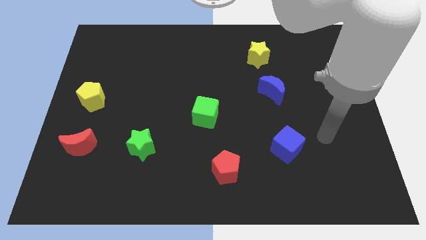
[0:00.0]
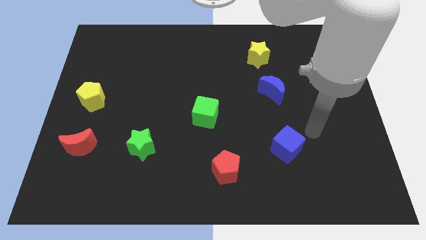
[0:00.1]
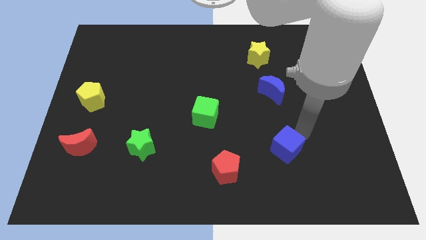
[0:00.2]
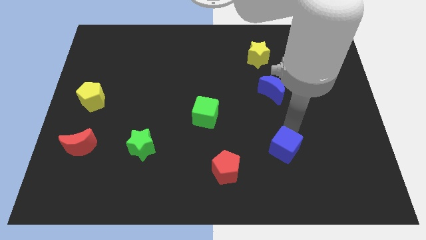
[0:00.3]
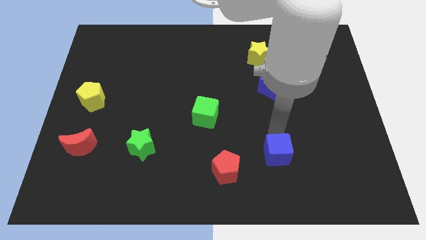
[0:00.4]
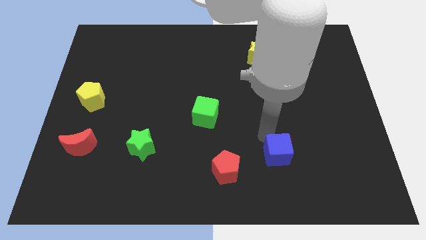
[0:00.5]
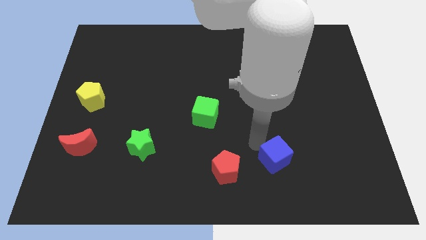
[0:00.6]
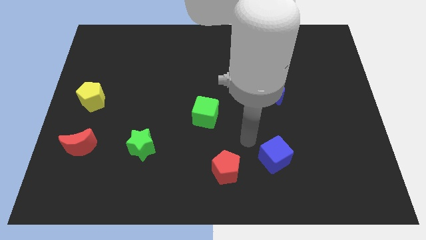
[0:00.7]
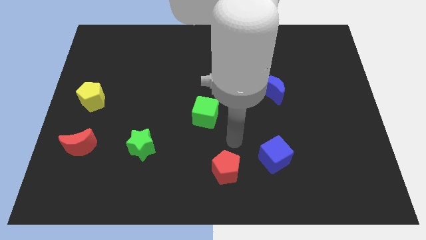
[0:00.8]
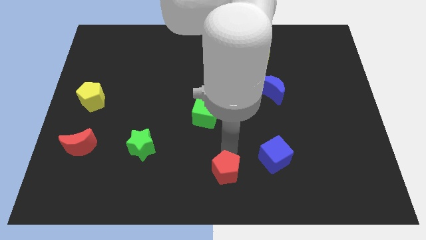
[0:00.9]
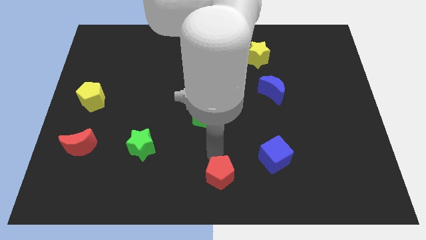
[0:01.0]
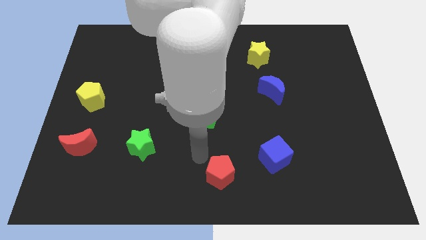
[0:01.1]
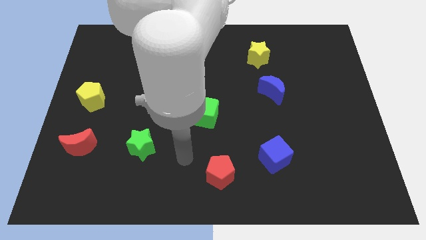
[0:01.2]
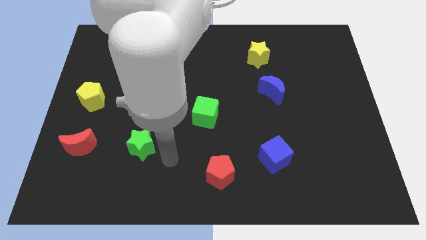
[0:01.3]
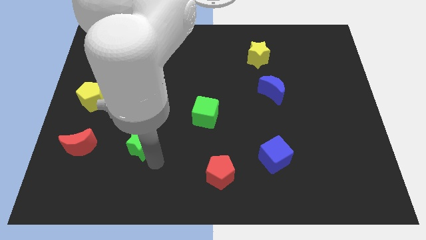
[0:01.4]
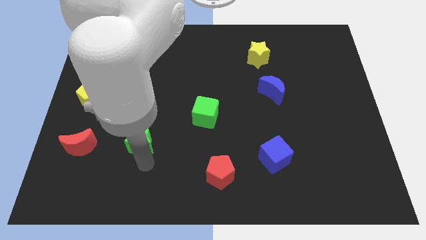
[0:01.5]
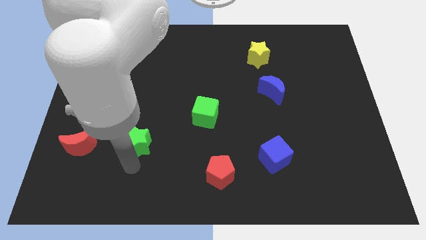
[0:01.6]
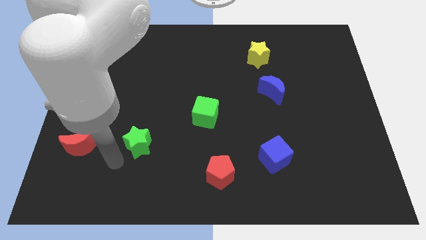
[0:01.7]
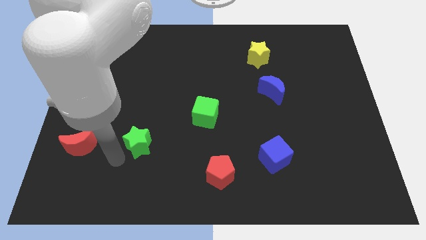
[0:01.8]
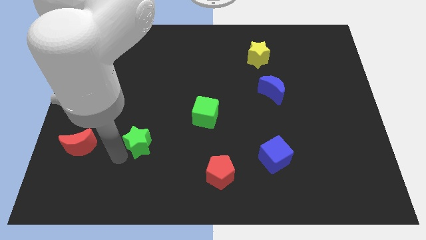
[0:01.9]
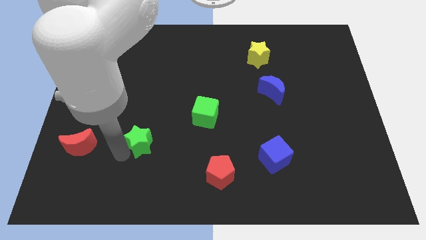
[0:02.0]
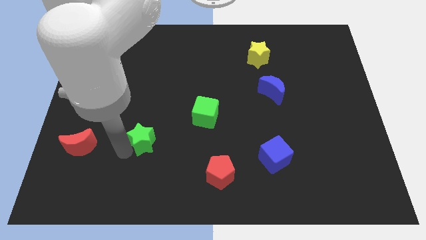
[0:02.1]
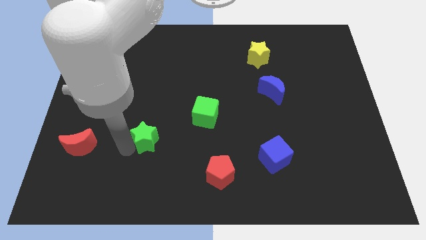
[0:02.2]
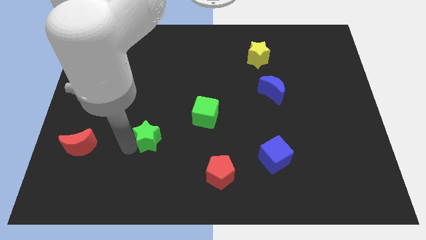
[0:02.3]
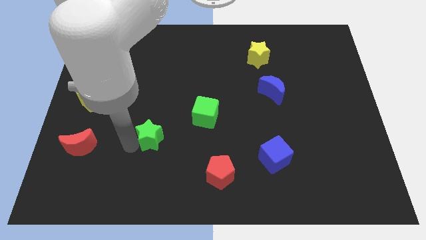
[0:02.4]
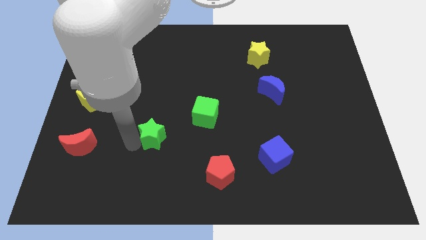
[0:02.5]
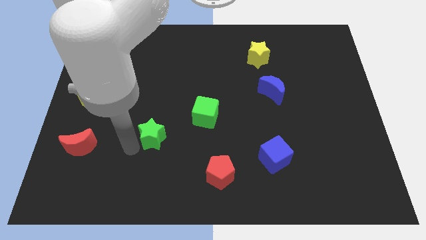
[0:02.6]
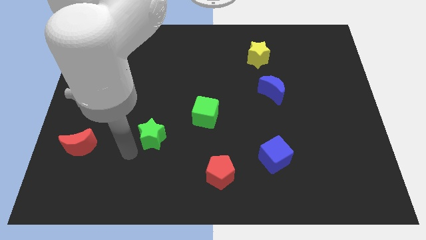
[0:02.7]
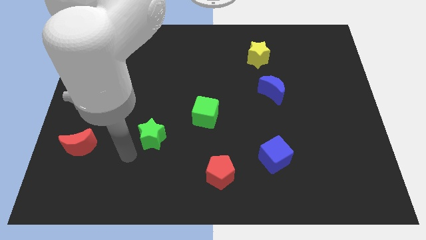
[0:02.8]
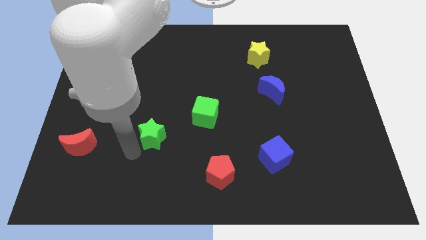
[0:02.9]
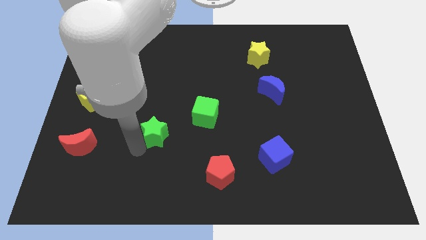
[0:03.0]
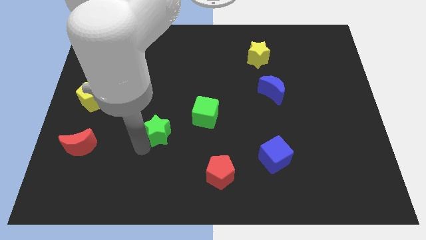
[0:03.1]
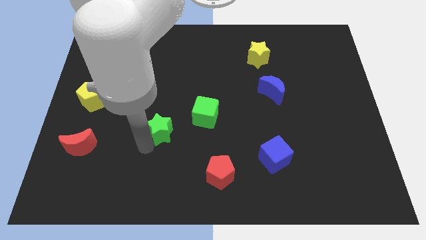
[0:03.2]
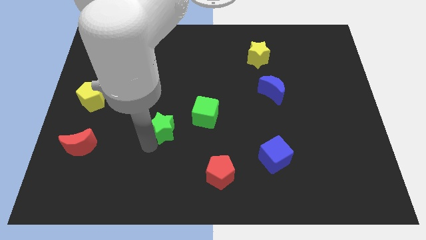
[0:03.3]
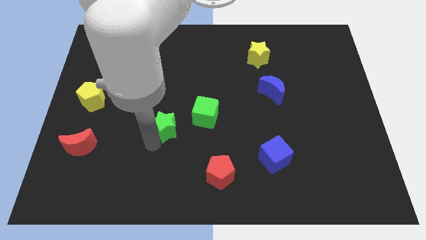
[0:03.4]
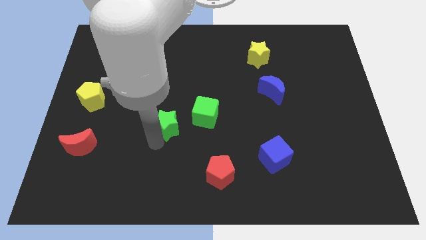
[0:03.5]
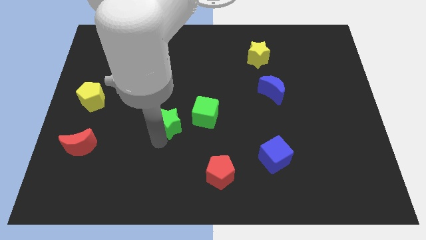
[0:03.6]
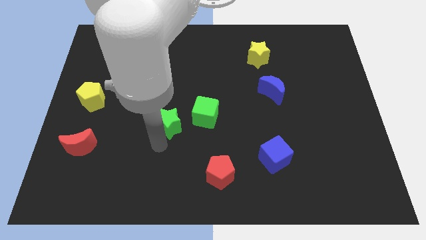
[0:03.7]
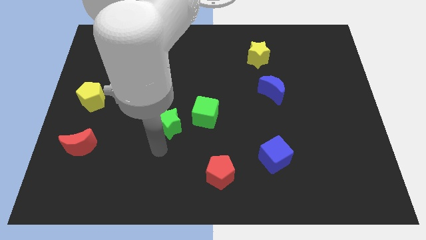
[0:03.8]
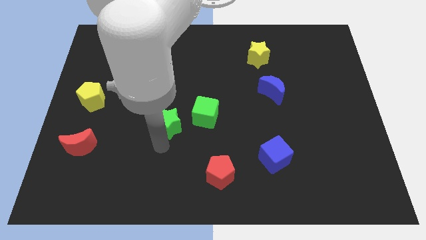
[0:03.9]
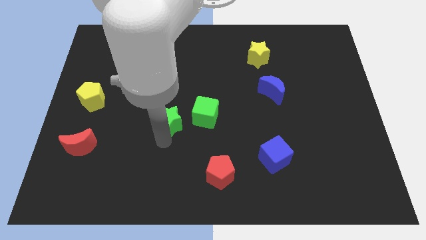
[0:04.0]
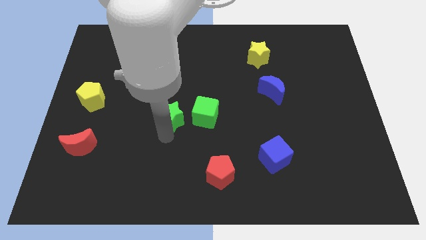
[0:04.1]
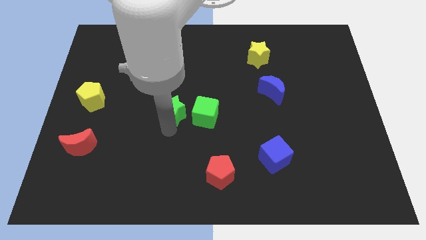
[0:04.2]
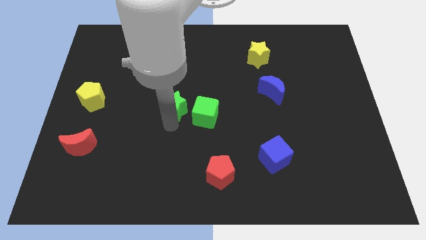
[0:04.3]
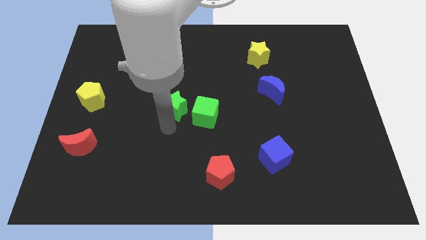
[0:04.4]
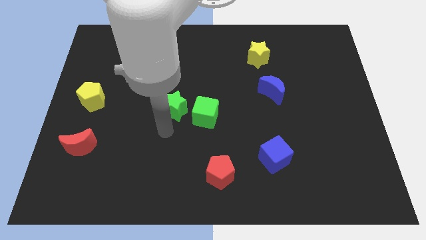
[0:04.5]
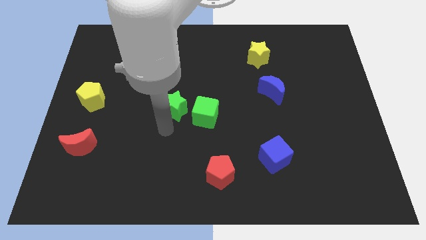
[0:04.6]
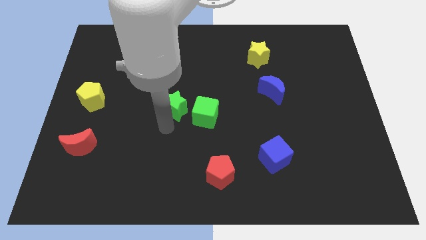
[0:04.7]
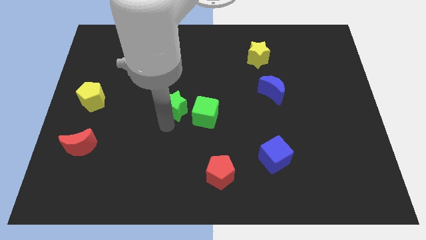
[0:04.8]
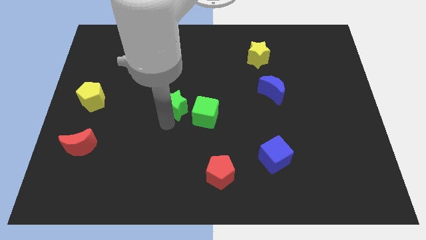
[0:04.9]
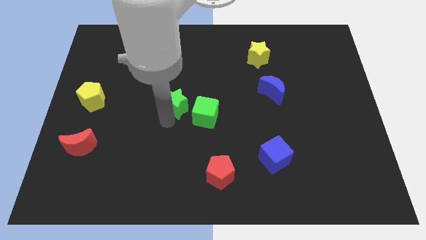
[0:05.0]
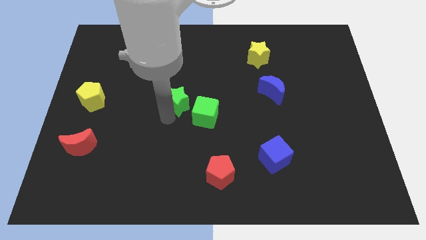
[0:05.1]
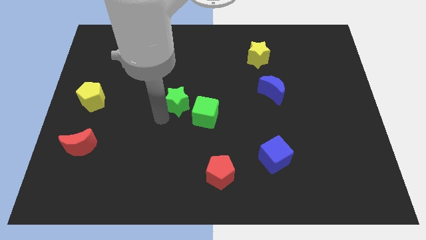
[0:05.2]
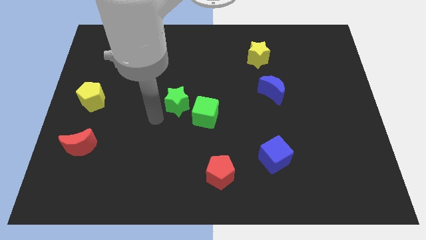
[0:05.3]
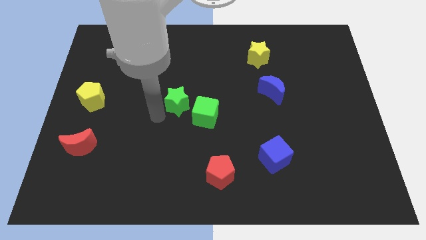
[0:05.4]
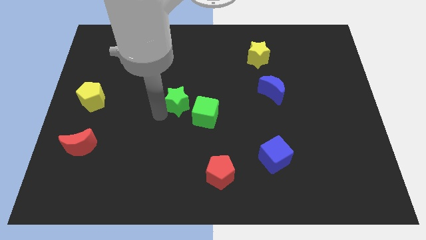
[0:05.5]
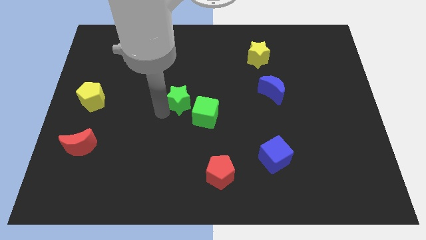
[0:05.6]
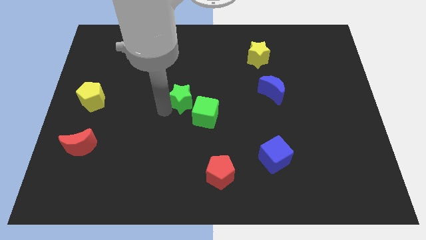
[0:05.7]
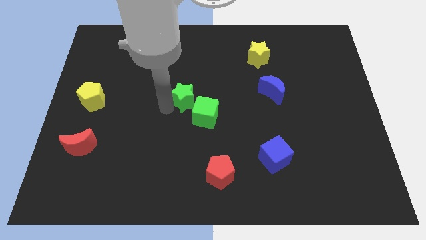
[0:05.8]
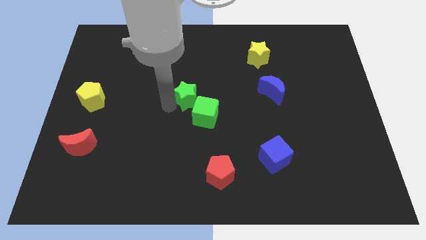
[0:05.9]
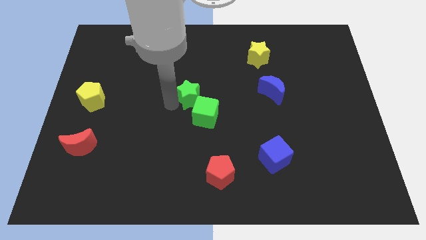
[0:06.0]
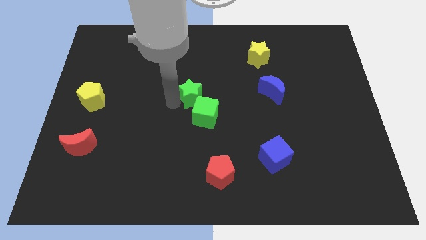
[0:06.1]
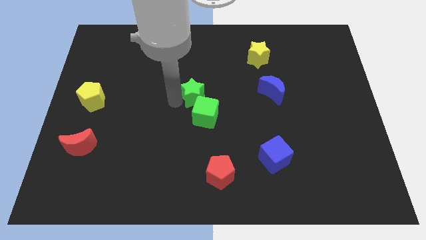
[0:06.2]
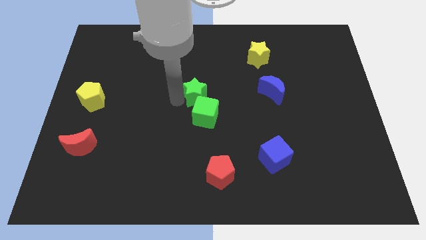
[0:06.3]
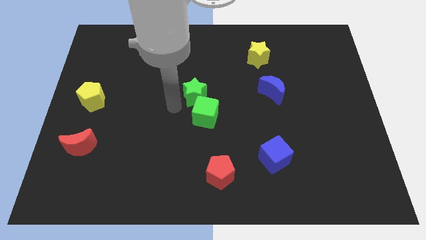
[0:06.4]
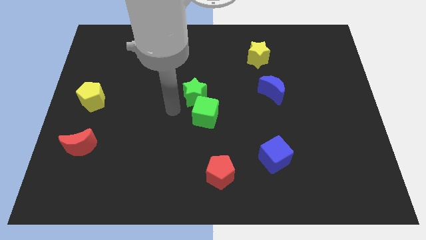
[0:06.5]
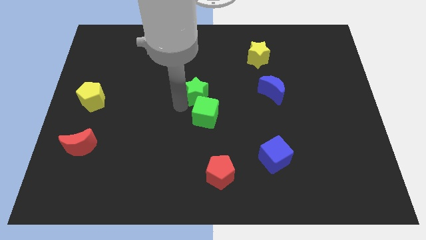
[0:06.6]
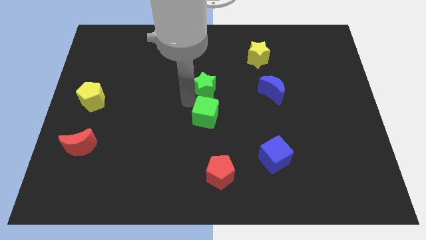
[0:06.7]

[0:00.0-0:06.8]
push the green star upwards and then to the right

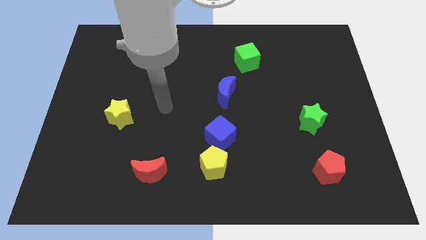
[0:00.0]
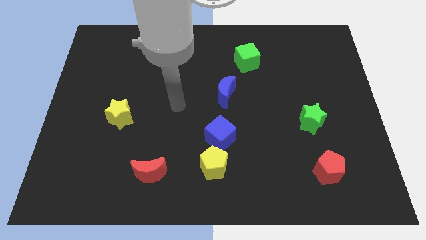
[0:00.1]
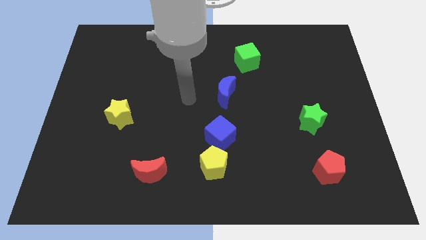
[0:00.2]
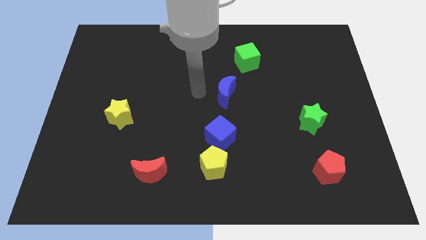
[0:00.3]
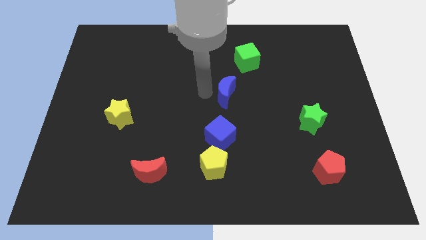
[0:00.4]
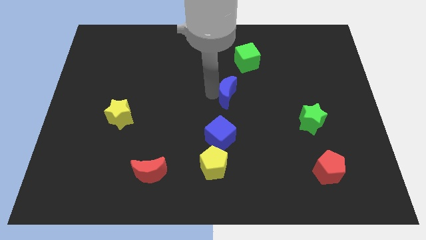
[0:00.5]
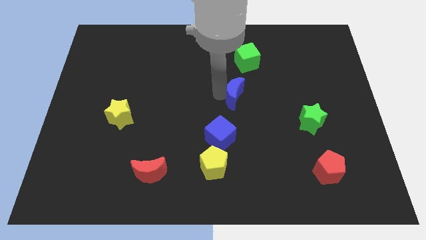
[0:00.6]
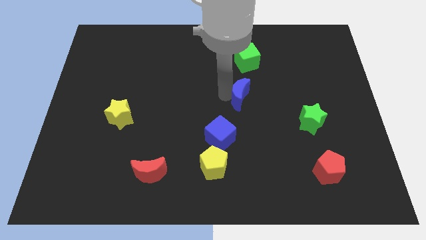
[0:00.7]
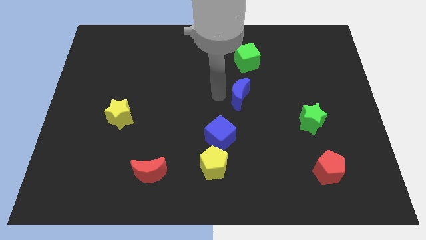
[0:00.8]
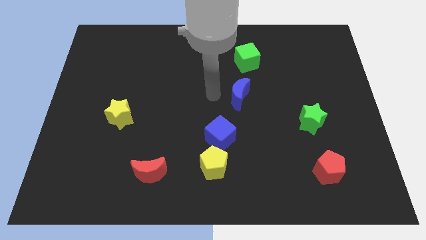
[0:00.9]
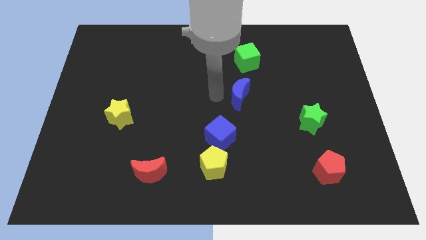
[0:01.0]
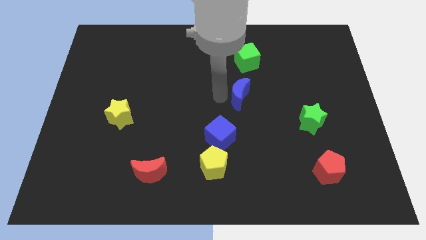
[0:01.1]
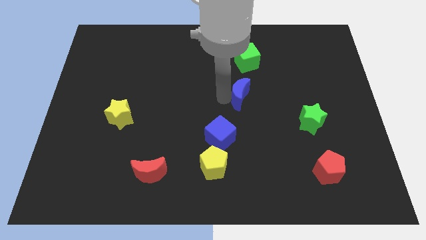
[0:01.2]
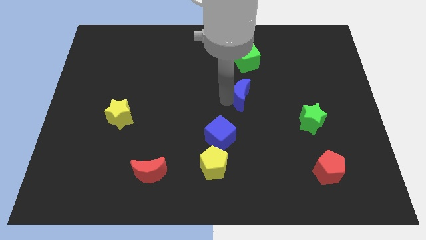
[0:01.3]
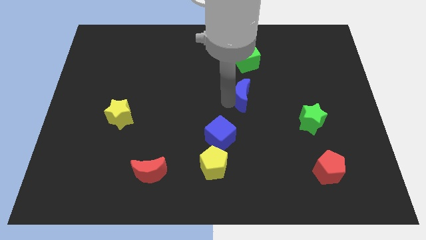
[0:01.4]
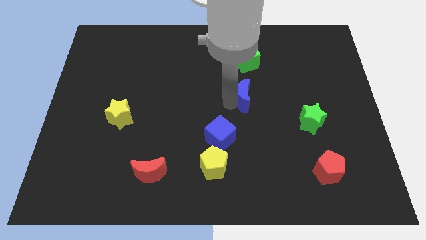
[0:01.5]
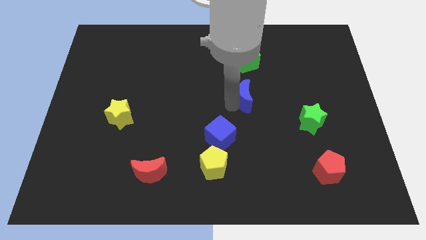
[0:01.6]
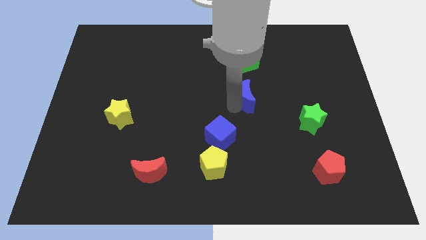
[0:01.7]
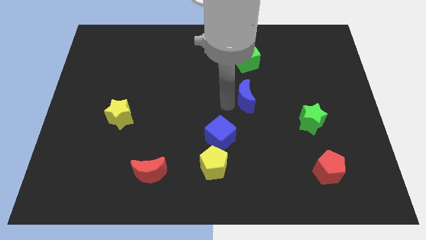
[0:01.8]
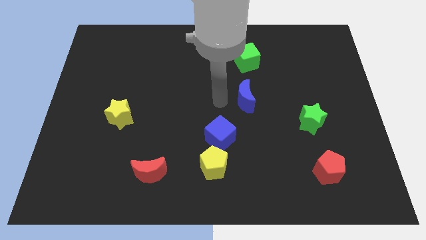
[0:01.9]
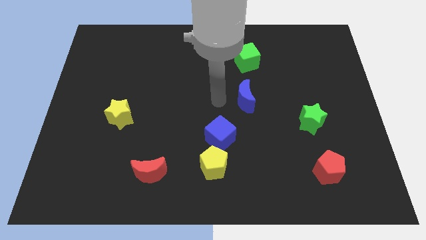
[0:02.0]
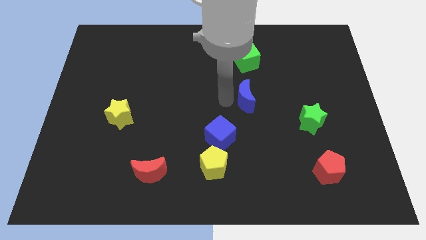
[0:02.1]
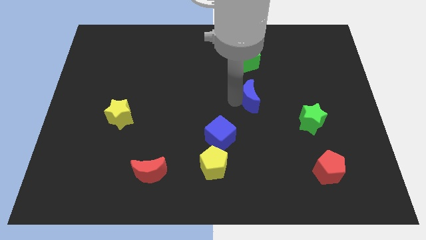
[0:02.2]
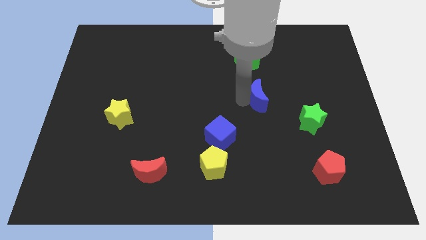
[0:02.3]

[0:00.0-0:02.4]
move the blue moon a little bit to the right
